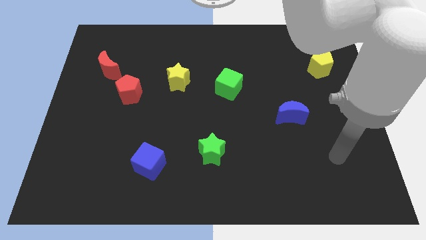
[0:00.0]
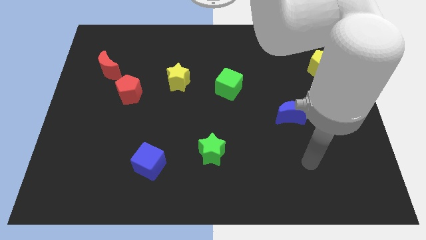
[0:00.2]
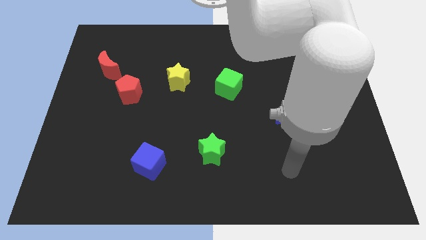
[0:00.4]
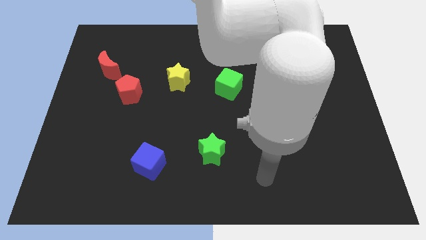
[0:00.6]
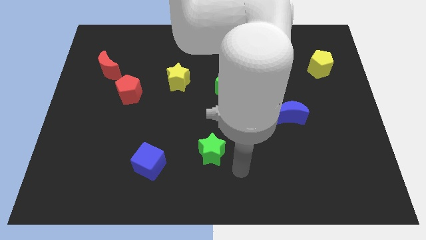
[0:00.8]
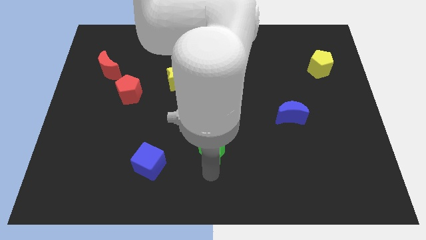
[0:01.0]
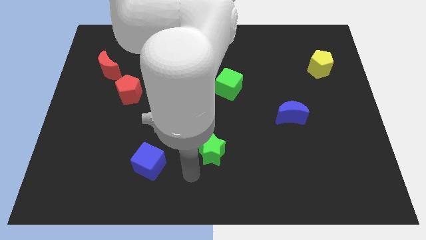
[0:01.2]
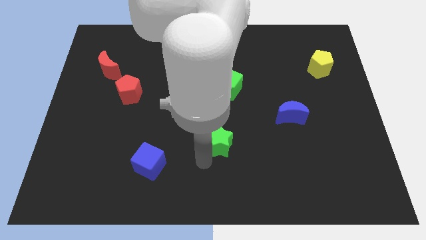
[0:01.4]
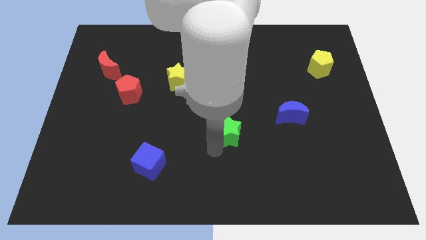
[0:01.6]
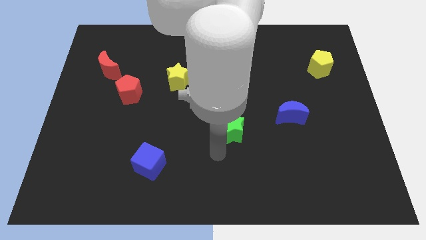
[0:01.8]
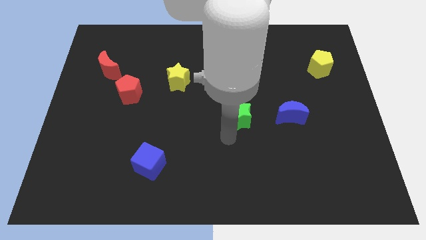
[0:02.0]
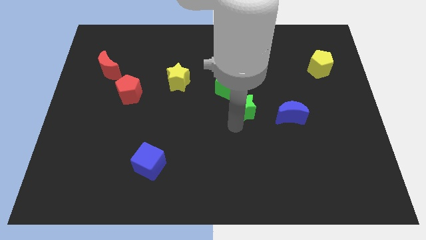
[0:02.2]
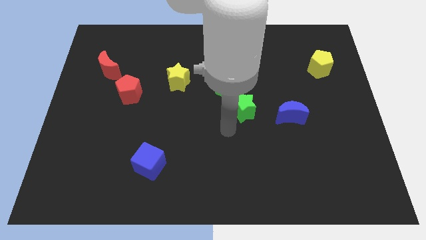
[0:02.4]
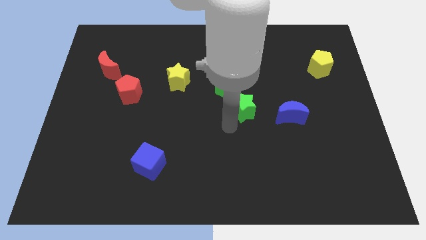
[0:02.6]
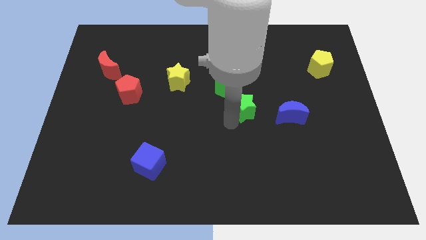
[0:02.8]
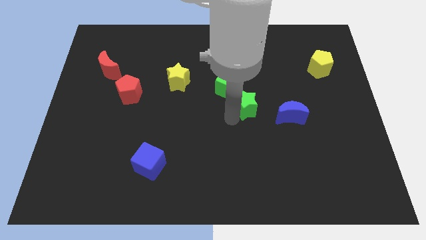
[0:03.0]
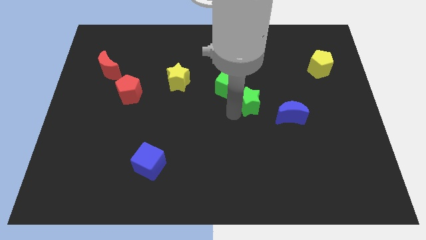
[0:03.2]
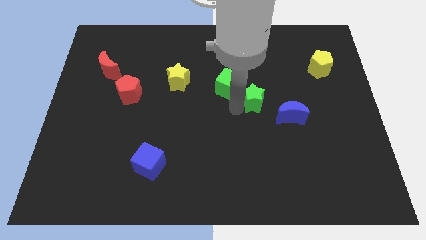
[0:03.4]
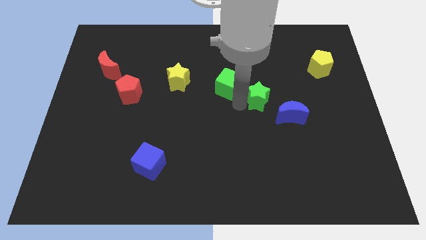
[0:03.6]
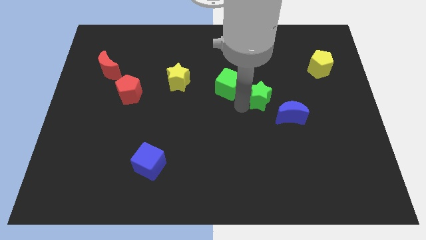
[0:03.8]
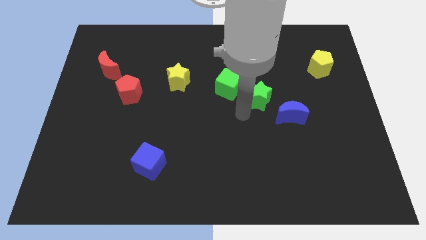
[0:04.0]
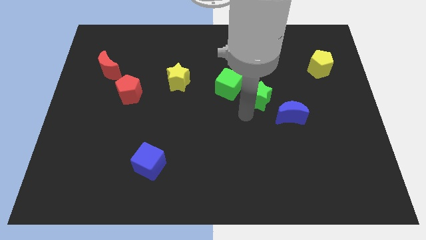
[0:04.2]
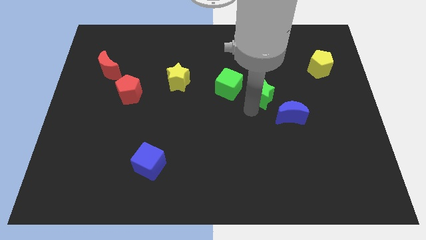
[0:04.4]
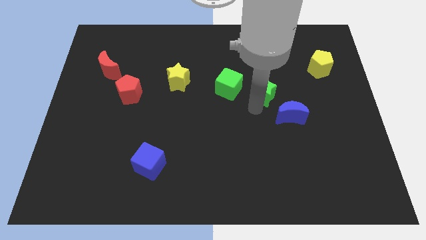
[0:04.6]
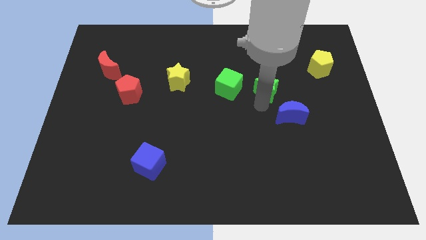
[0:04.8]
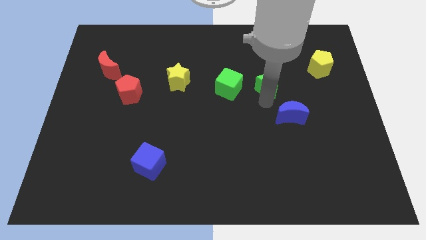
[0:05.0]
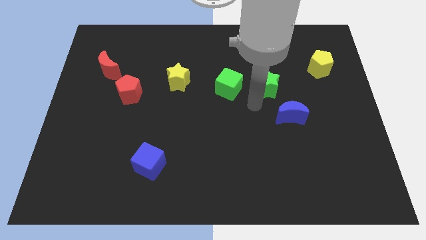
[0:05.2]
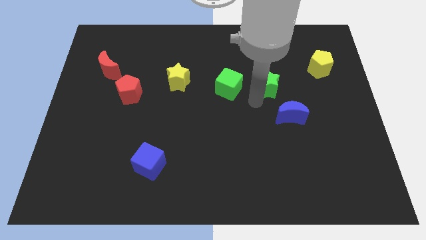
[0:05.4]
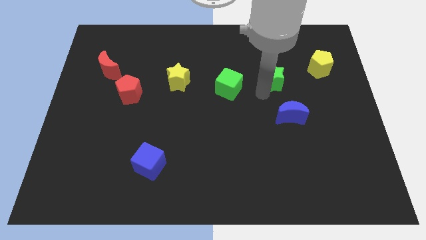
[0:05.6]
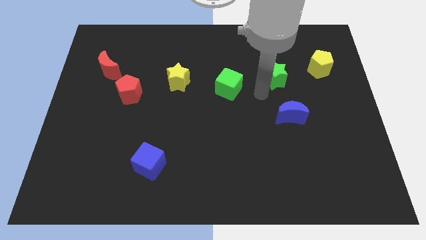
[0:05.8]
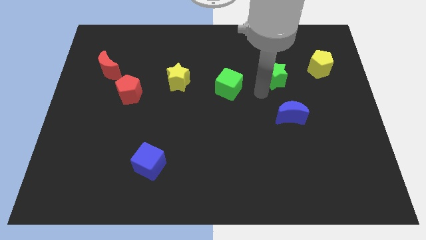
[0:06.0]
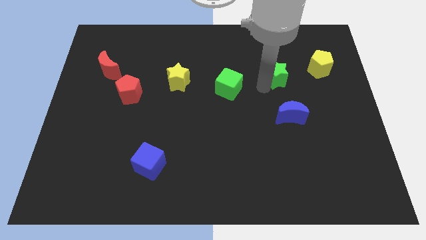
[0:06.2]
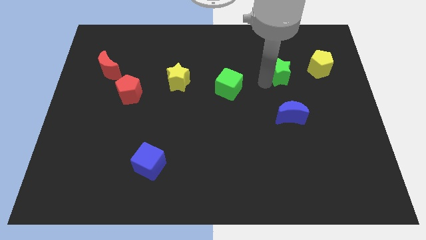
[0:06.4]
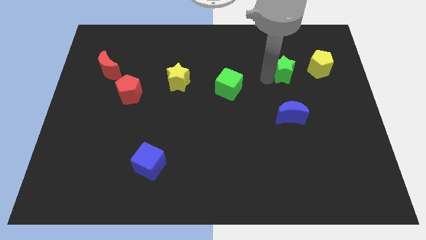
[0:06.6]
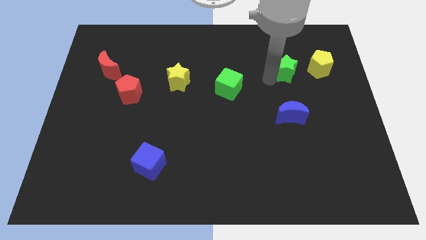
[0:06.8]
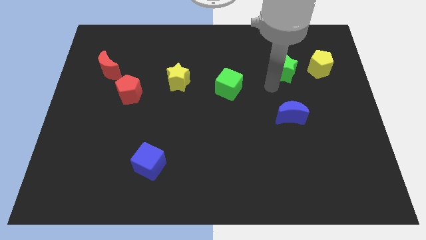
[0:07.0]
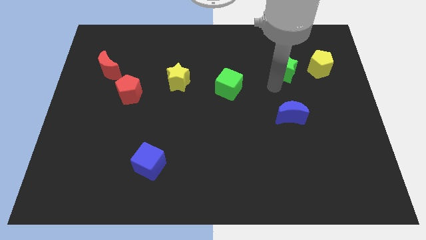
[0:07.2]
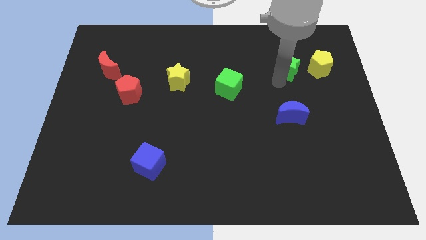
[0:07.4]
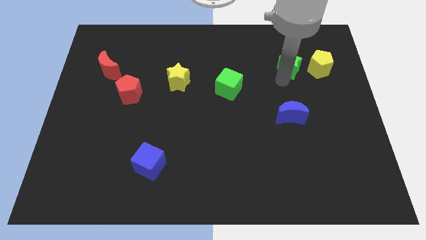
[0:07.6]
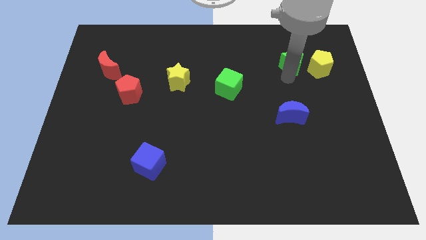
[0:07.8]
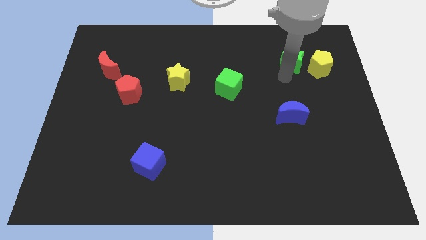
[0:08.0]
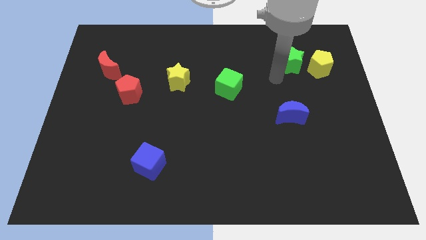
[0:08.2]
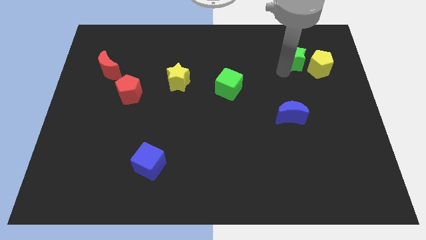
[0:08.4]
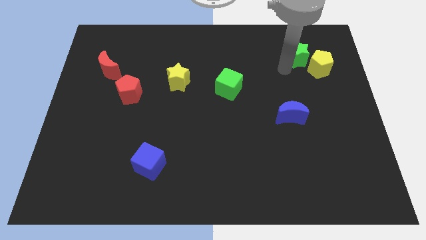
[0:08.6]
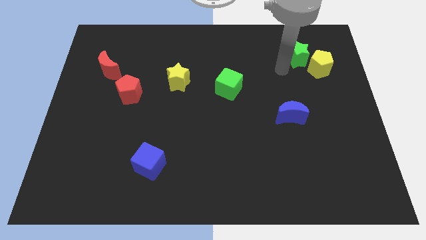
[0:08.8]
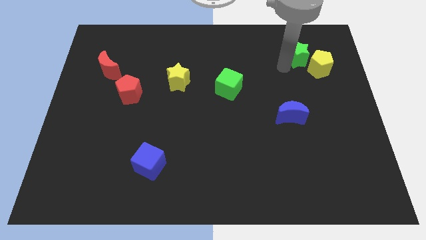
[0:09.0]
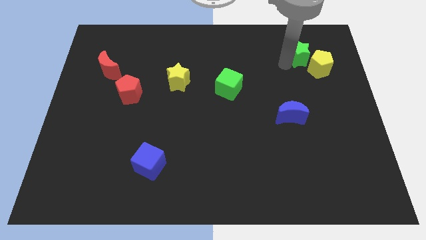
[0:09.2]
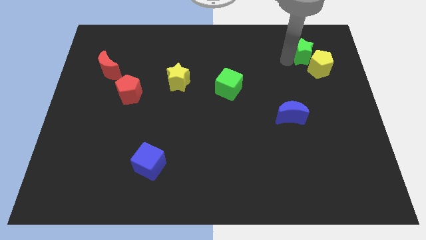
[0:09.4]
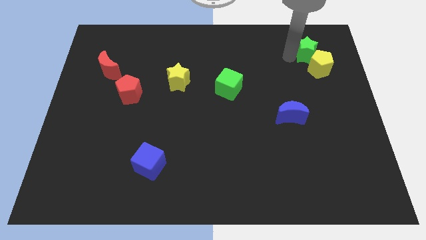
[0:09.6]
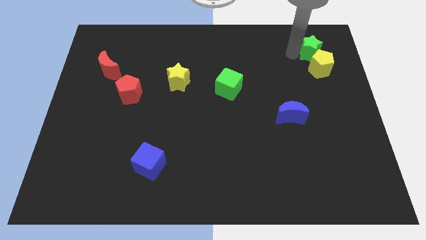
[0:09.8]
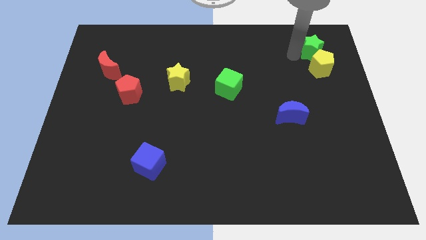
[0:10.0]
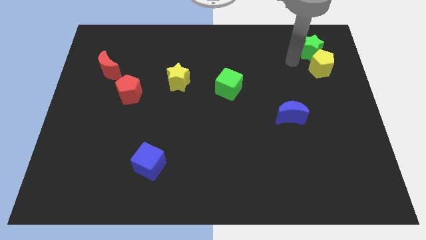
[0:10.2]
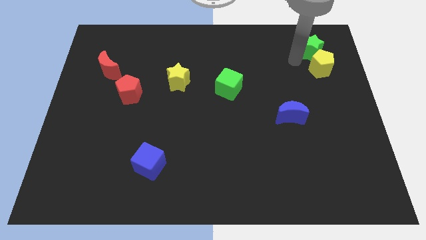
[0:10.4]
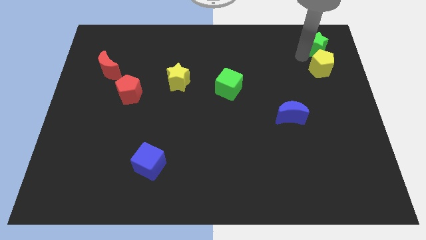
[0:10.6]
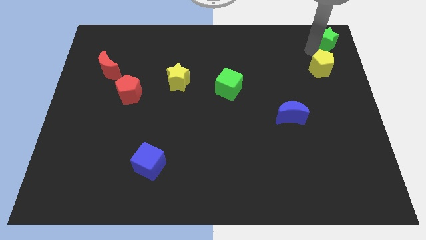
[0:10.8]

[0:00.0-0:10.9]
slide the green star to the top right of the board

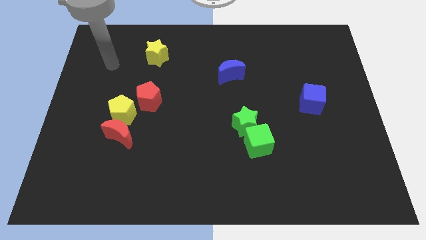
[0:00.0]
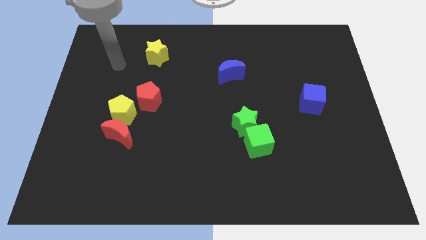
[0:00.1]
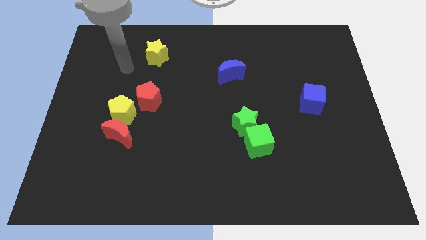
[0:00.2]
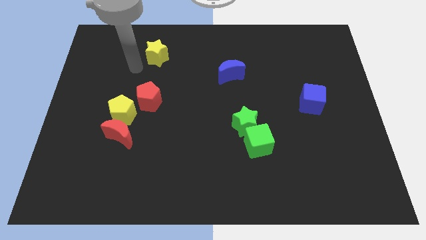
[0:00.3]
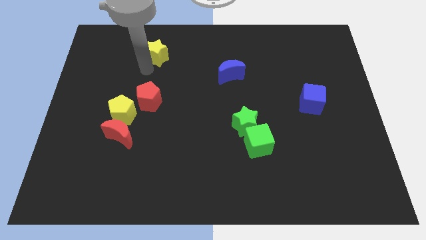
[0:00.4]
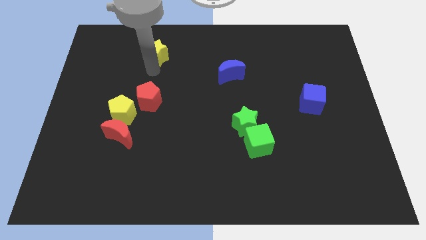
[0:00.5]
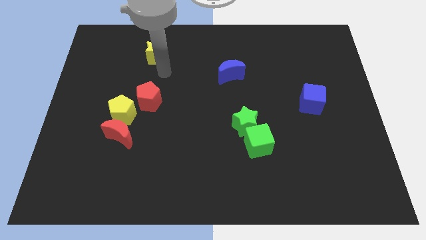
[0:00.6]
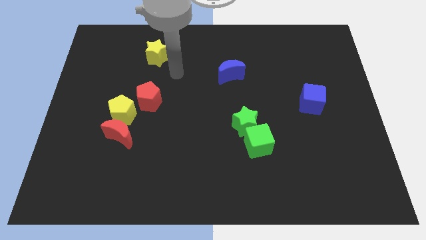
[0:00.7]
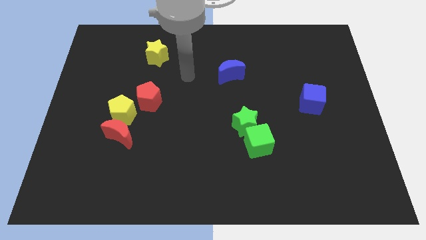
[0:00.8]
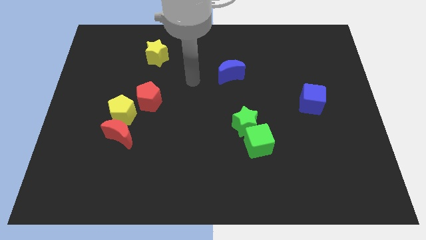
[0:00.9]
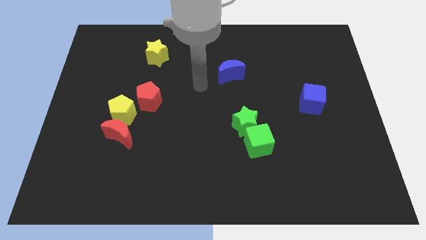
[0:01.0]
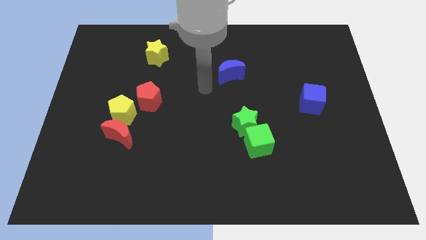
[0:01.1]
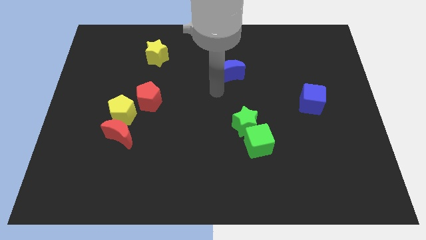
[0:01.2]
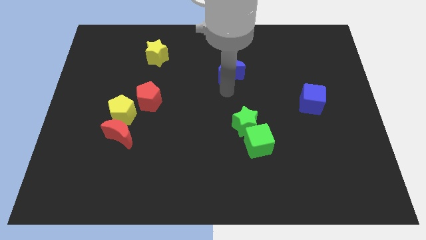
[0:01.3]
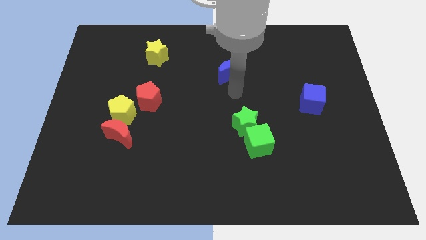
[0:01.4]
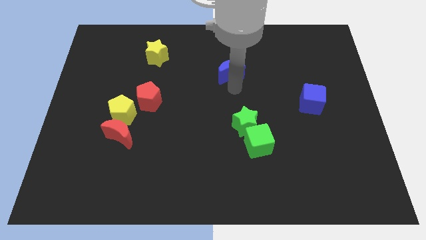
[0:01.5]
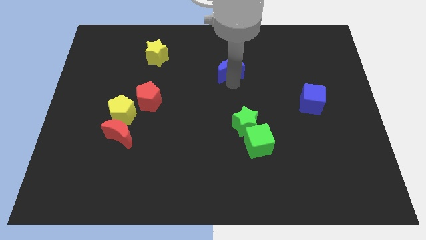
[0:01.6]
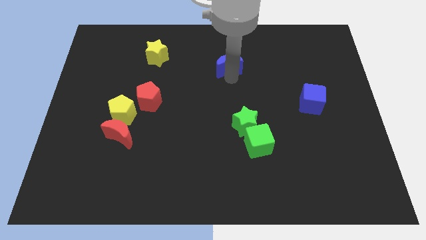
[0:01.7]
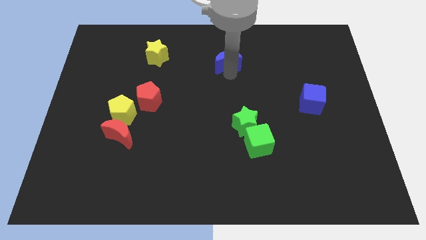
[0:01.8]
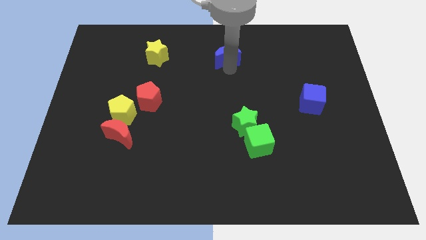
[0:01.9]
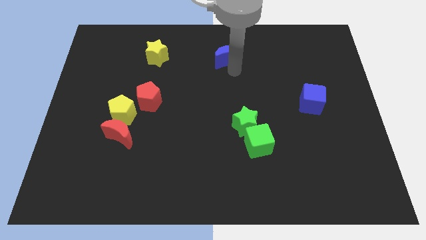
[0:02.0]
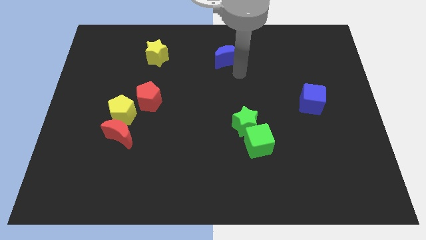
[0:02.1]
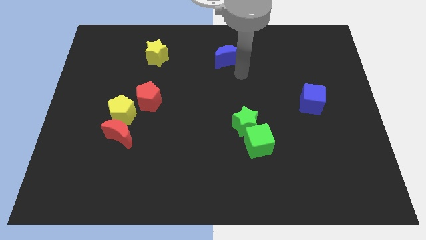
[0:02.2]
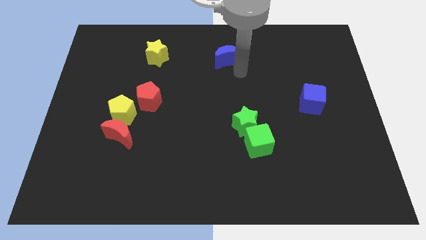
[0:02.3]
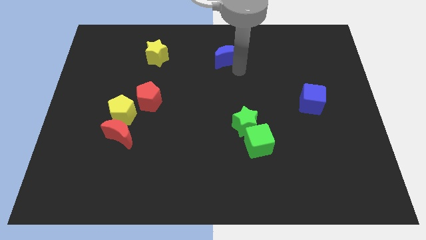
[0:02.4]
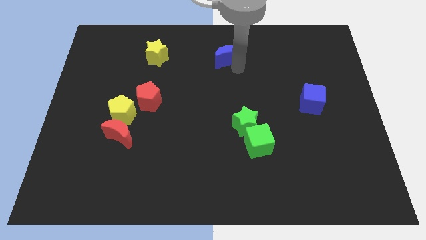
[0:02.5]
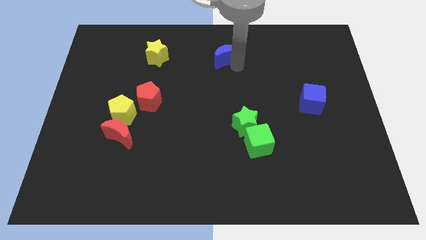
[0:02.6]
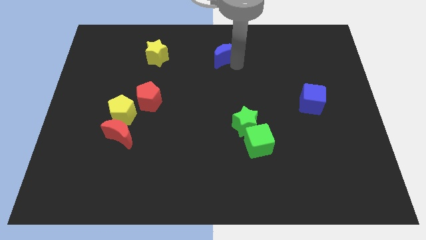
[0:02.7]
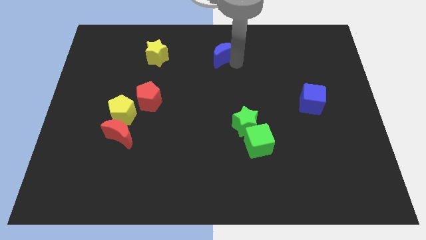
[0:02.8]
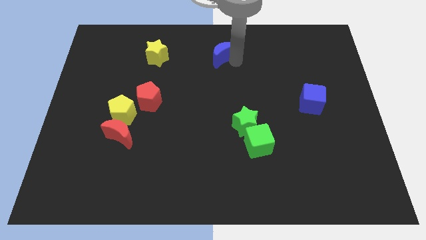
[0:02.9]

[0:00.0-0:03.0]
slide the blue moon to the top side
